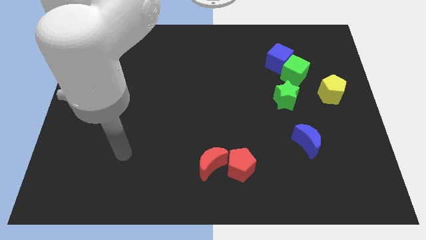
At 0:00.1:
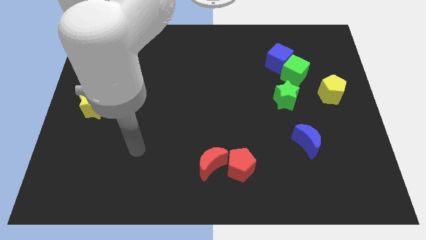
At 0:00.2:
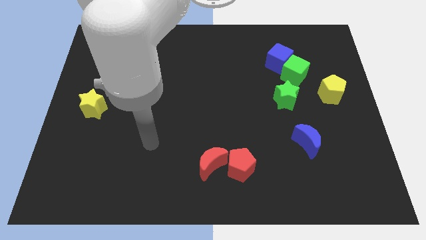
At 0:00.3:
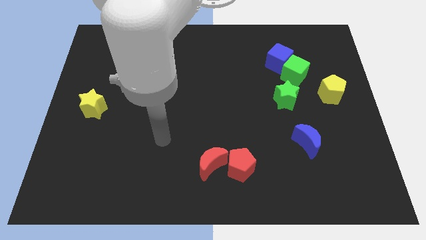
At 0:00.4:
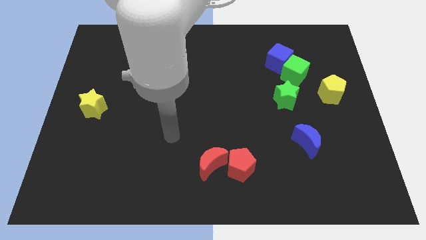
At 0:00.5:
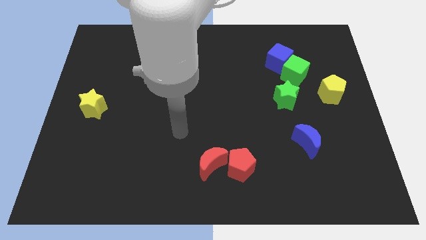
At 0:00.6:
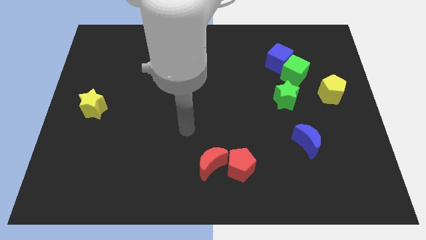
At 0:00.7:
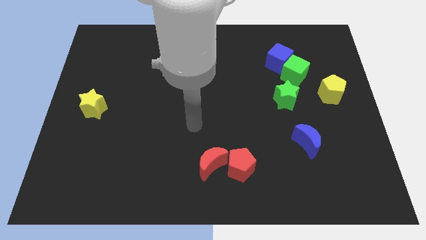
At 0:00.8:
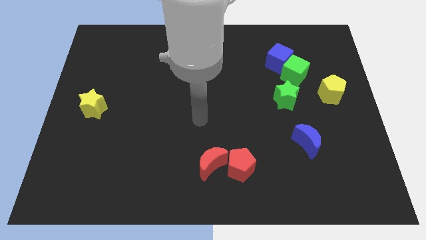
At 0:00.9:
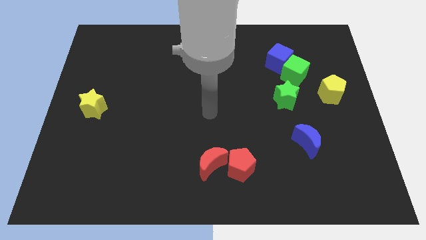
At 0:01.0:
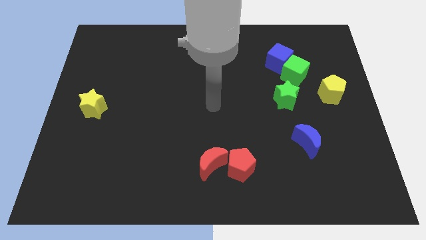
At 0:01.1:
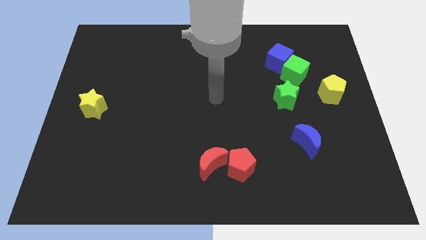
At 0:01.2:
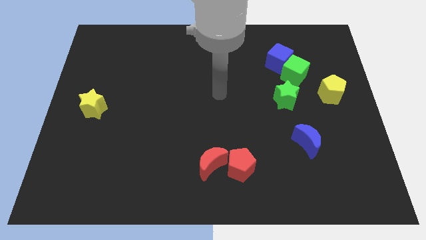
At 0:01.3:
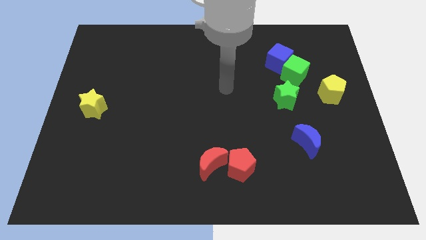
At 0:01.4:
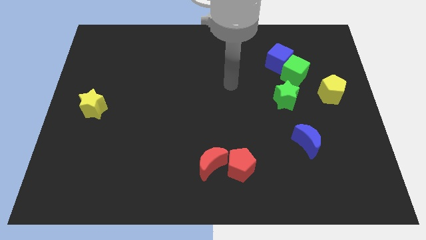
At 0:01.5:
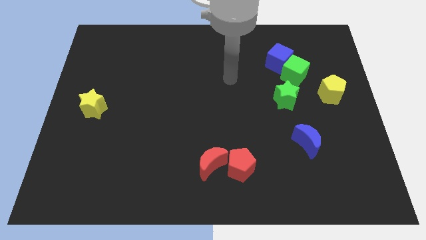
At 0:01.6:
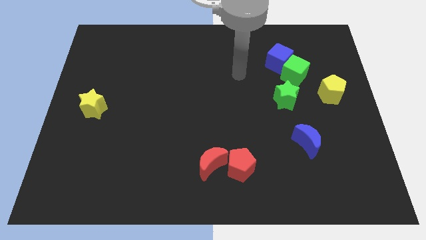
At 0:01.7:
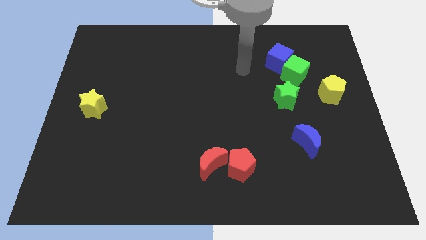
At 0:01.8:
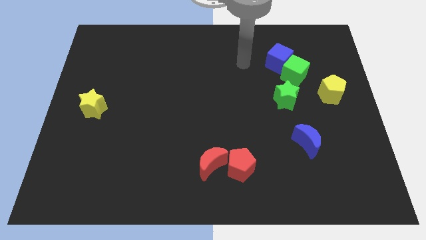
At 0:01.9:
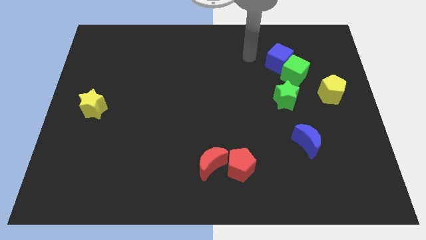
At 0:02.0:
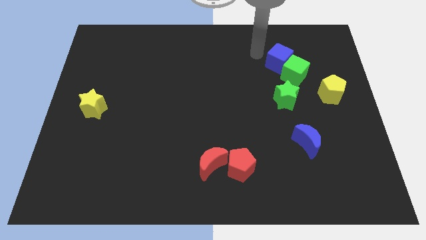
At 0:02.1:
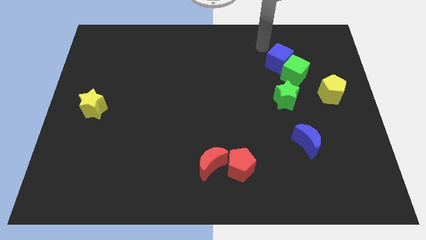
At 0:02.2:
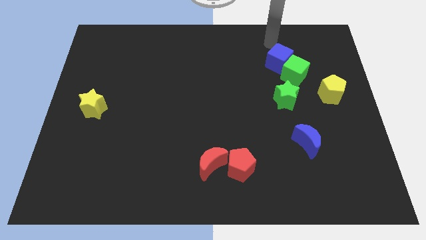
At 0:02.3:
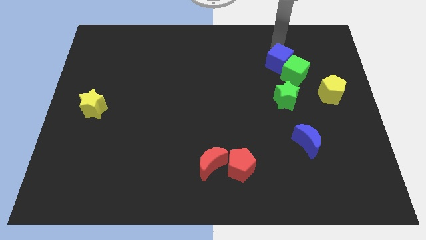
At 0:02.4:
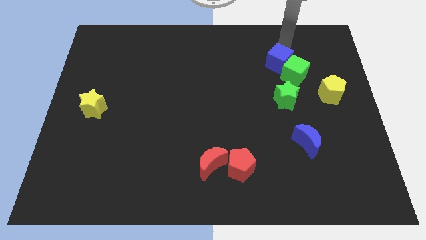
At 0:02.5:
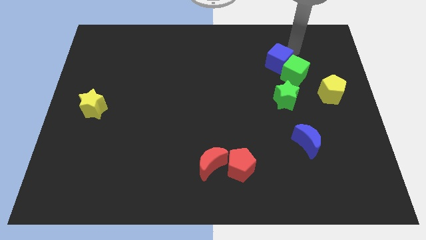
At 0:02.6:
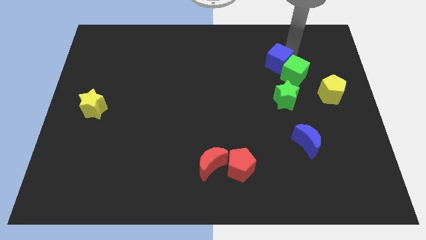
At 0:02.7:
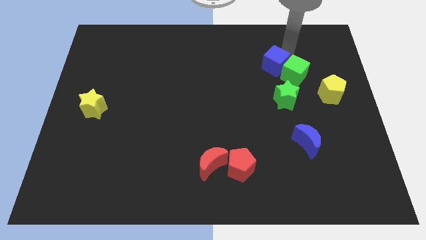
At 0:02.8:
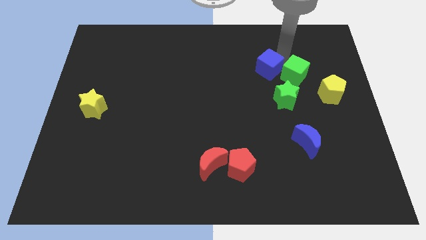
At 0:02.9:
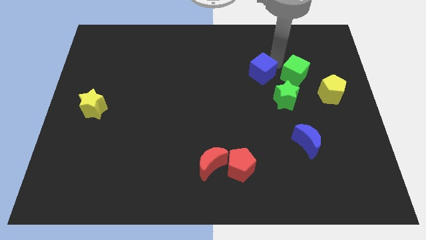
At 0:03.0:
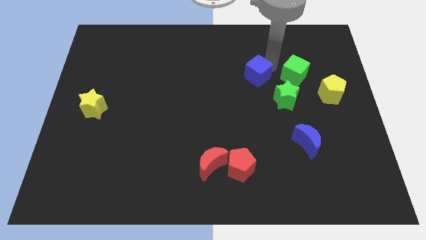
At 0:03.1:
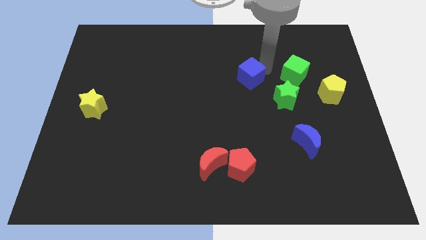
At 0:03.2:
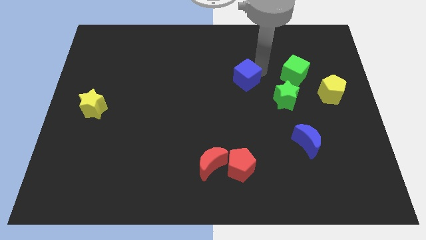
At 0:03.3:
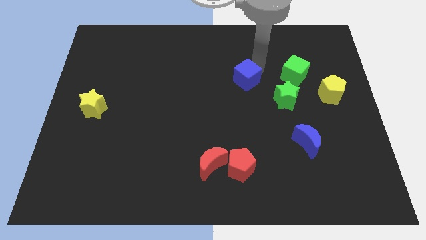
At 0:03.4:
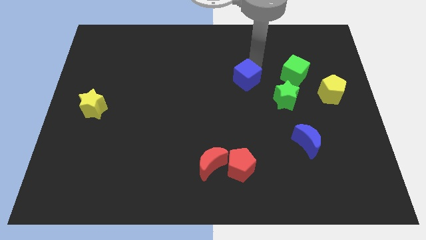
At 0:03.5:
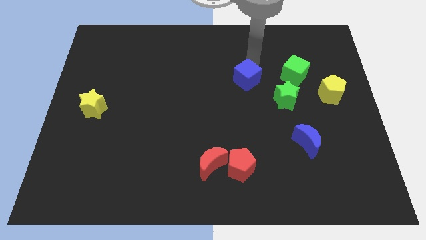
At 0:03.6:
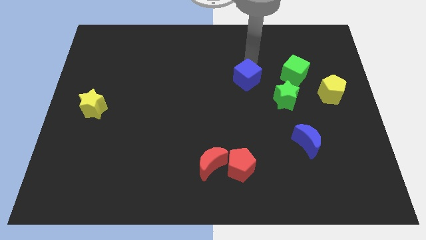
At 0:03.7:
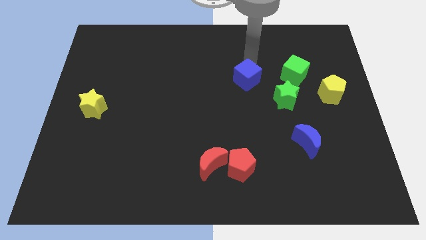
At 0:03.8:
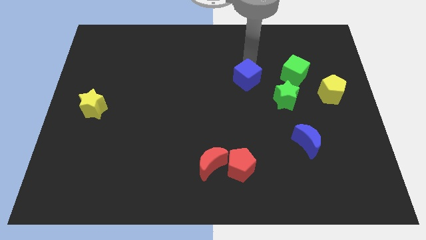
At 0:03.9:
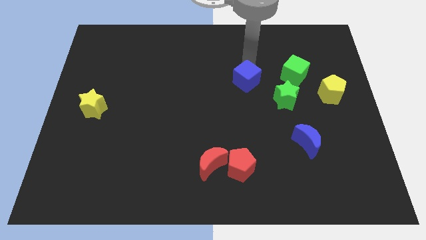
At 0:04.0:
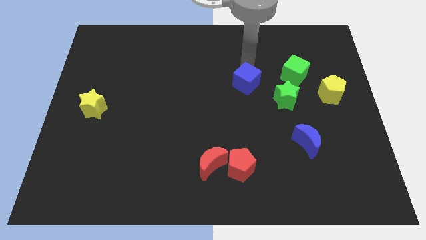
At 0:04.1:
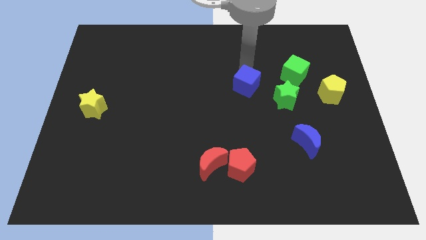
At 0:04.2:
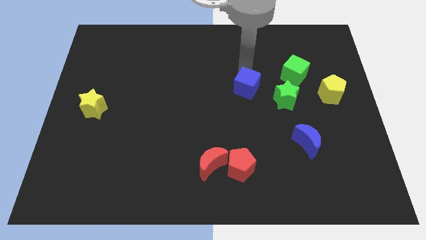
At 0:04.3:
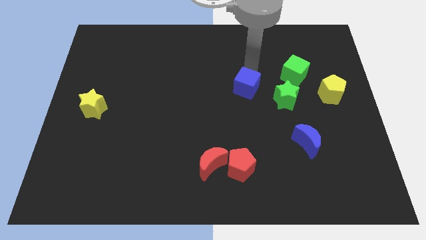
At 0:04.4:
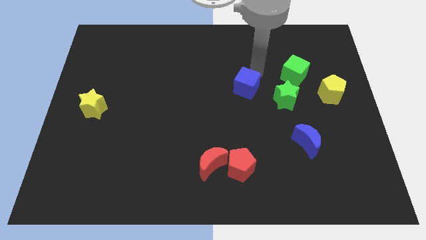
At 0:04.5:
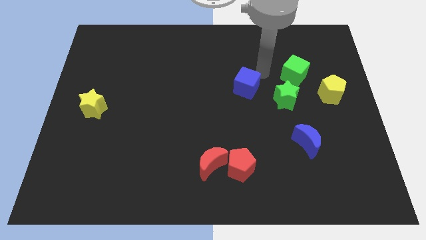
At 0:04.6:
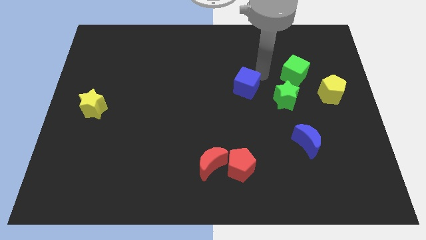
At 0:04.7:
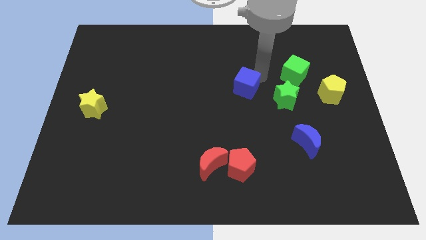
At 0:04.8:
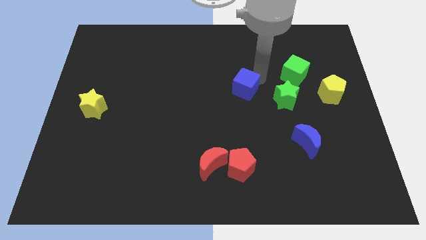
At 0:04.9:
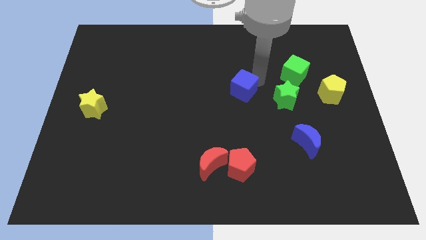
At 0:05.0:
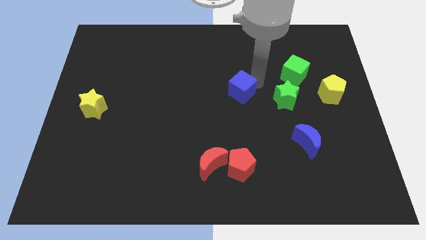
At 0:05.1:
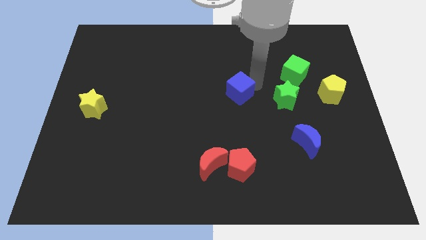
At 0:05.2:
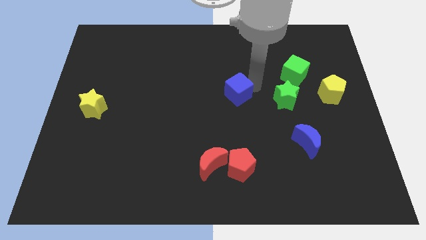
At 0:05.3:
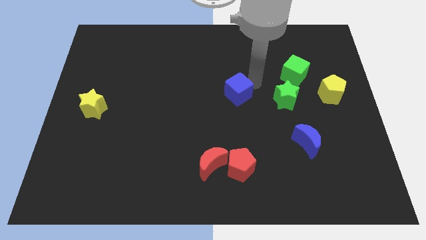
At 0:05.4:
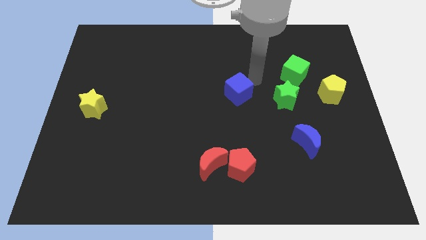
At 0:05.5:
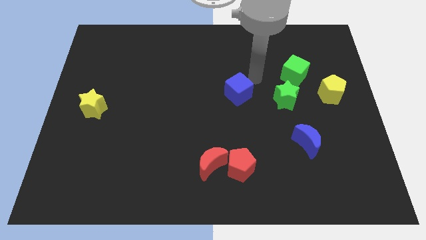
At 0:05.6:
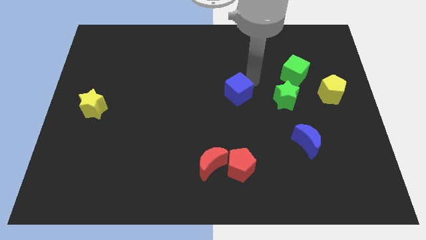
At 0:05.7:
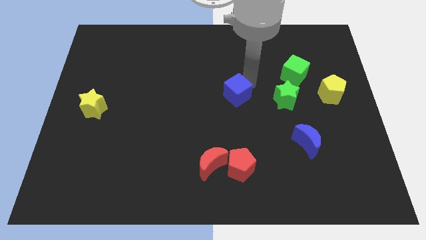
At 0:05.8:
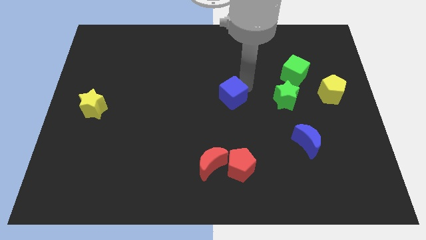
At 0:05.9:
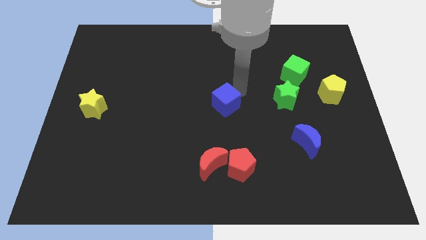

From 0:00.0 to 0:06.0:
slide the blue cube down and then to the left

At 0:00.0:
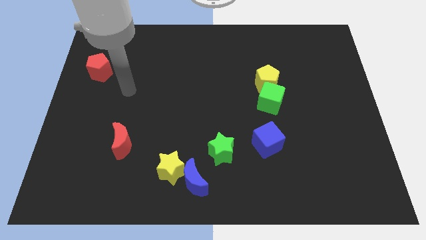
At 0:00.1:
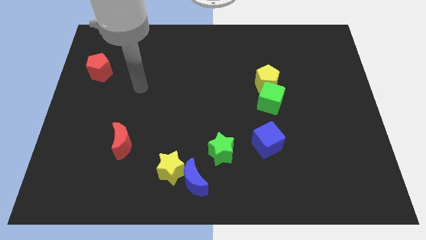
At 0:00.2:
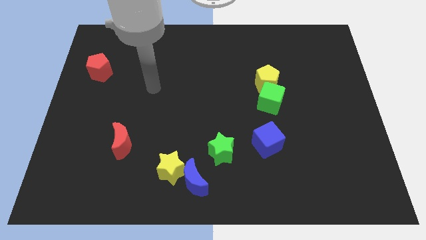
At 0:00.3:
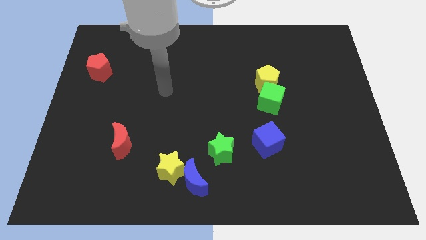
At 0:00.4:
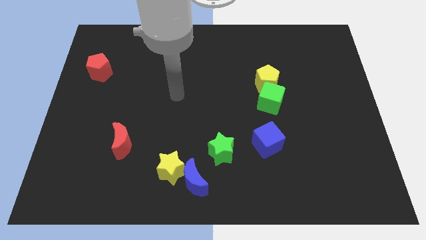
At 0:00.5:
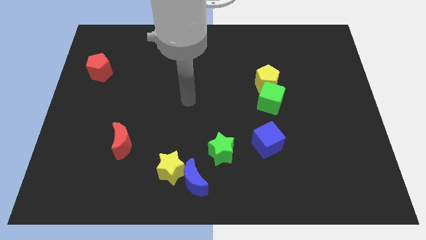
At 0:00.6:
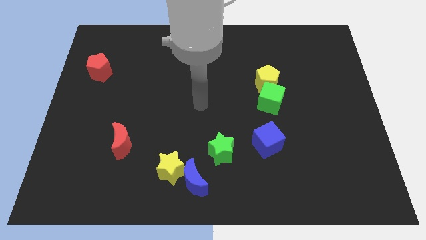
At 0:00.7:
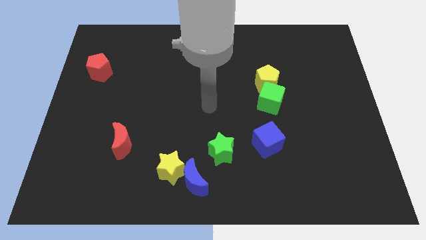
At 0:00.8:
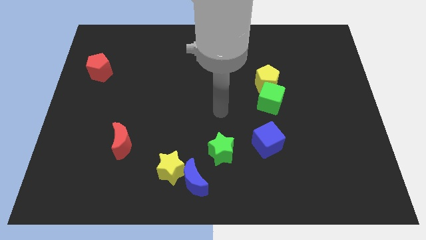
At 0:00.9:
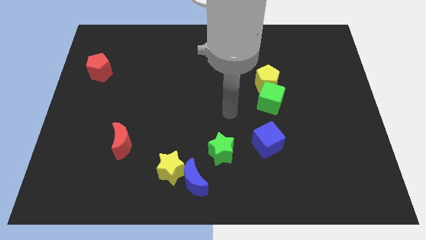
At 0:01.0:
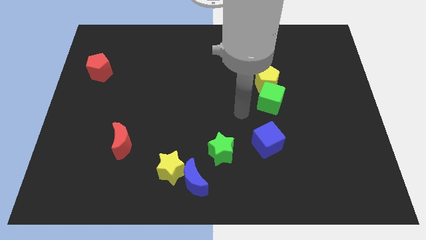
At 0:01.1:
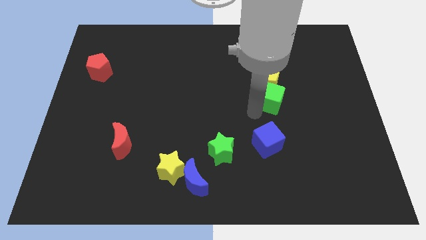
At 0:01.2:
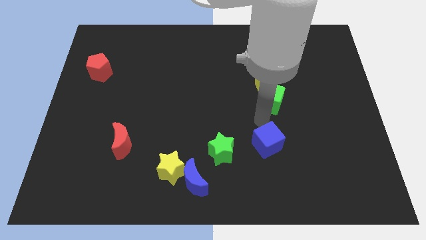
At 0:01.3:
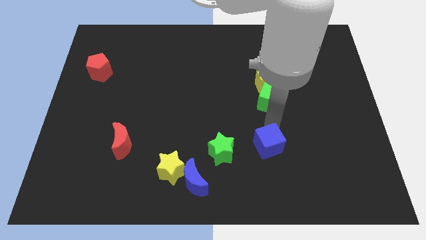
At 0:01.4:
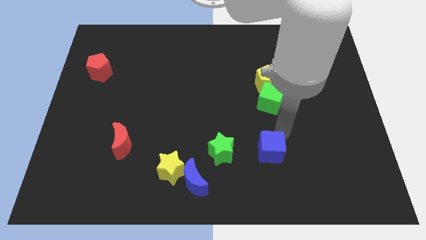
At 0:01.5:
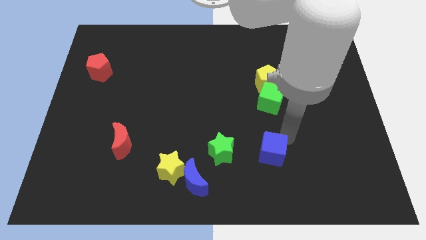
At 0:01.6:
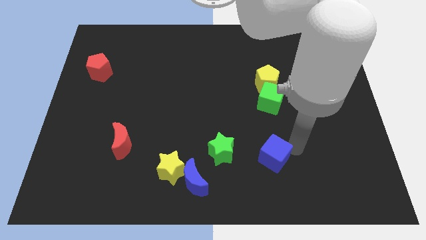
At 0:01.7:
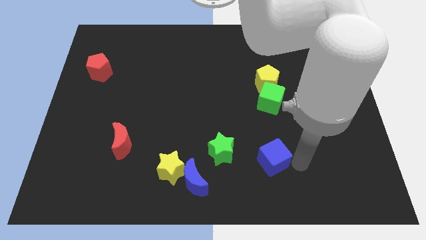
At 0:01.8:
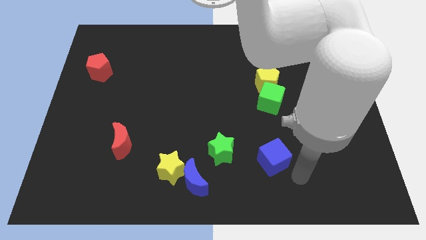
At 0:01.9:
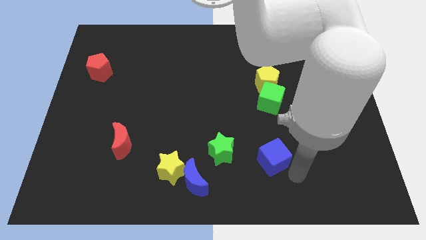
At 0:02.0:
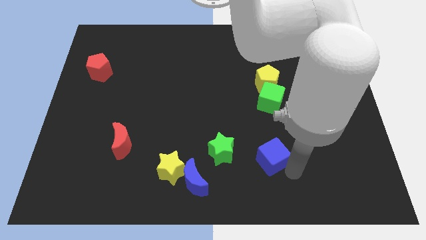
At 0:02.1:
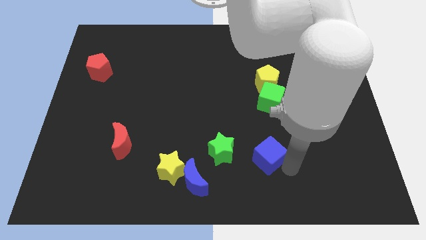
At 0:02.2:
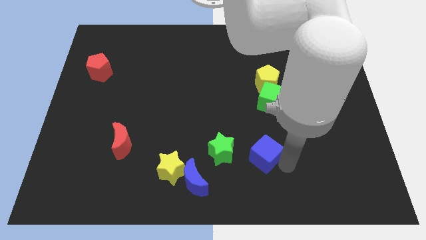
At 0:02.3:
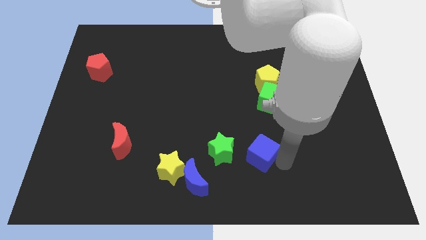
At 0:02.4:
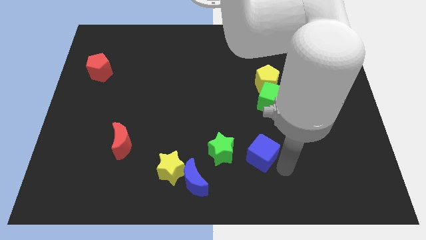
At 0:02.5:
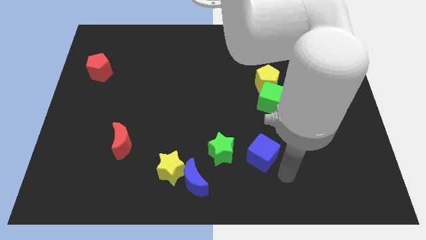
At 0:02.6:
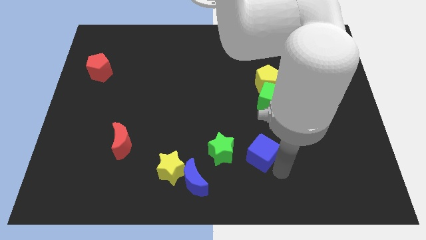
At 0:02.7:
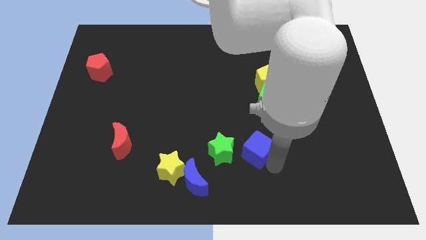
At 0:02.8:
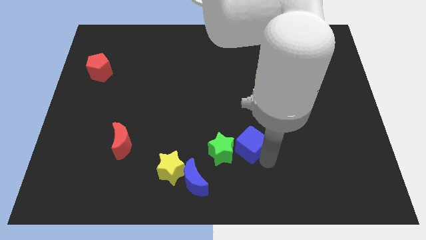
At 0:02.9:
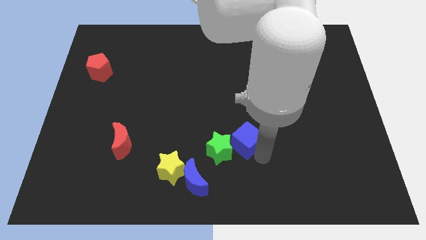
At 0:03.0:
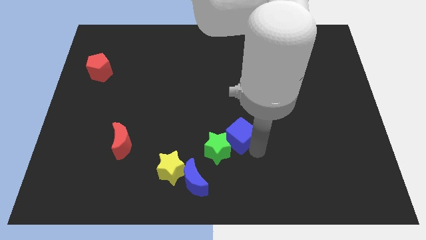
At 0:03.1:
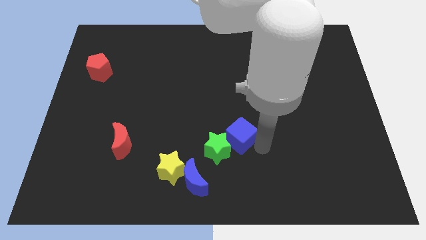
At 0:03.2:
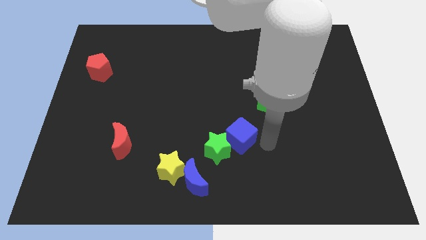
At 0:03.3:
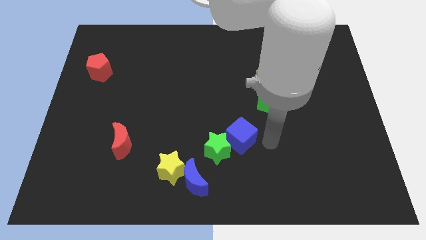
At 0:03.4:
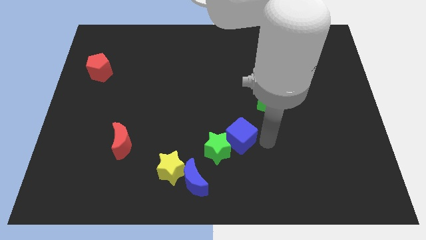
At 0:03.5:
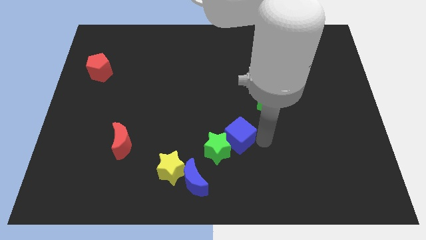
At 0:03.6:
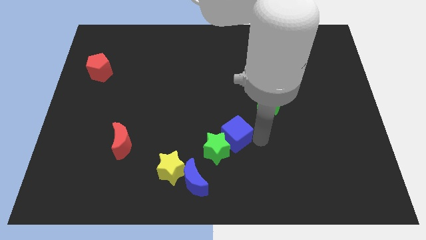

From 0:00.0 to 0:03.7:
push the blue cube to the left a little bit
